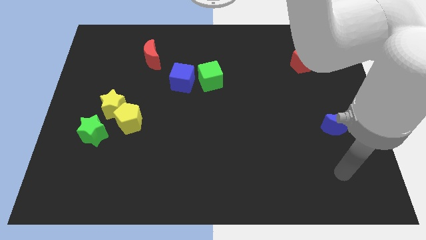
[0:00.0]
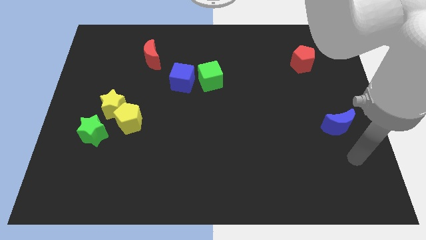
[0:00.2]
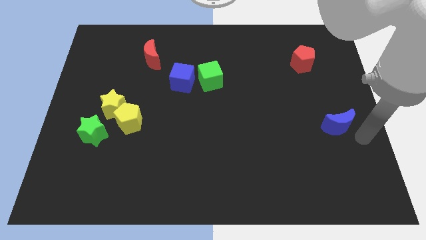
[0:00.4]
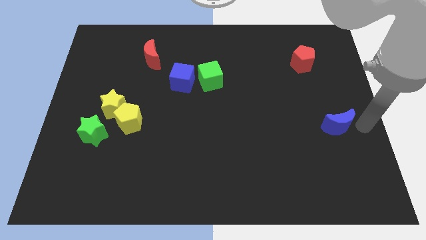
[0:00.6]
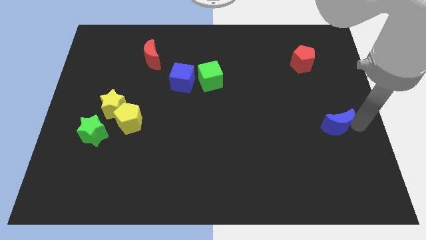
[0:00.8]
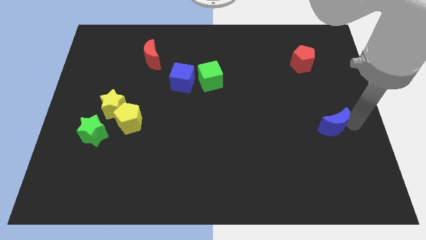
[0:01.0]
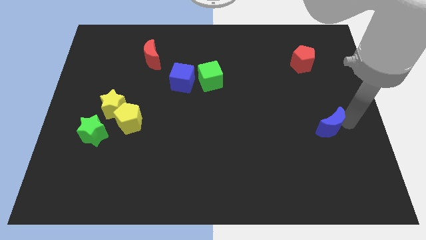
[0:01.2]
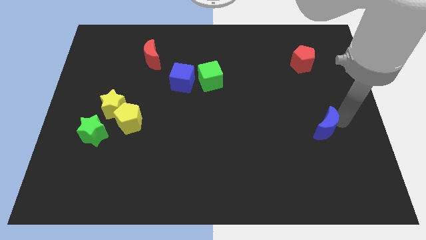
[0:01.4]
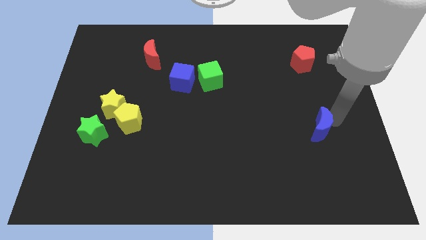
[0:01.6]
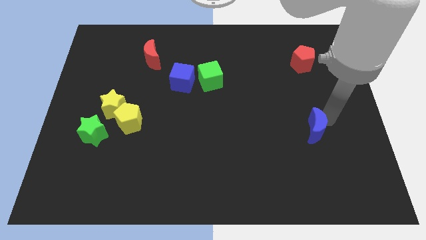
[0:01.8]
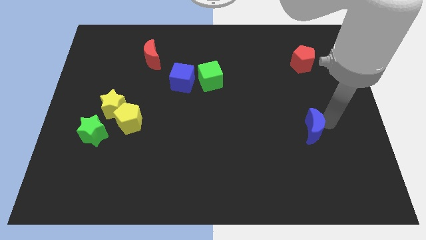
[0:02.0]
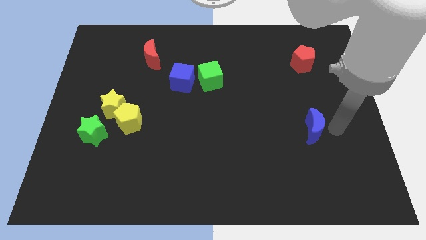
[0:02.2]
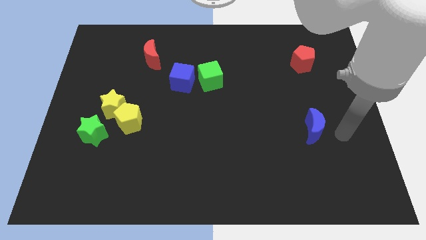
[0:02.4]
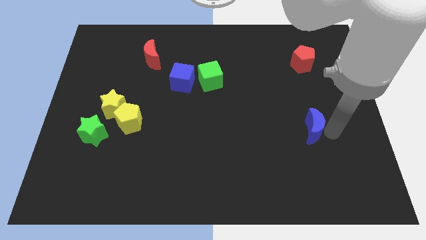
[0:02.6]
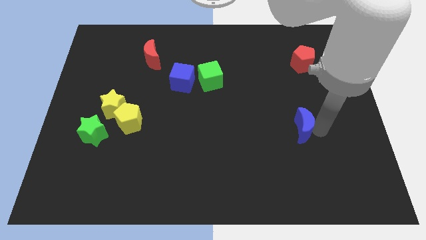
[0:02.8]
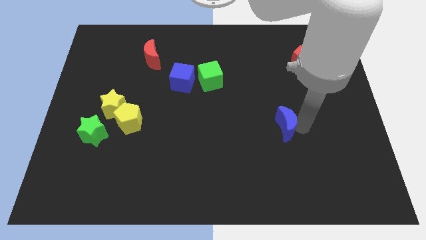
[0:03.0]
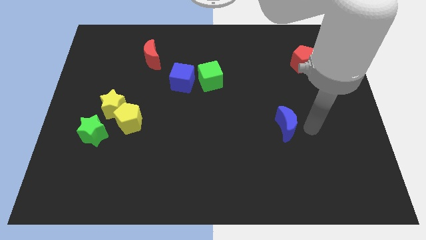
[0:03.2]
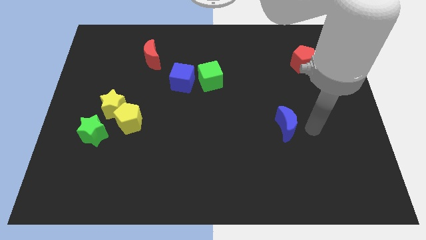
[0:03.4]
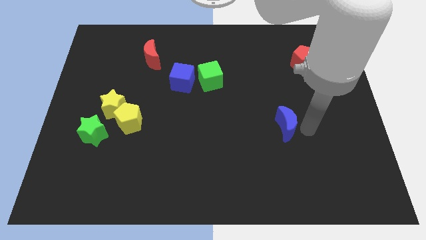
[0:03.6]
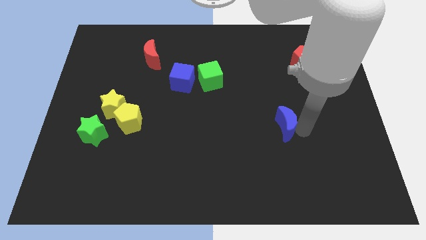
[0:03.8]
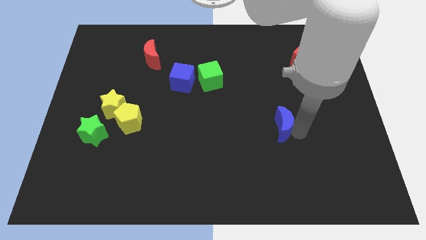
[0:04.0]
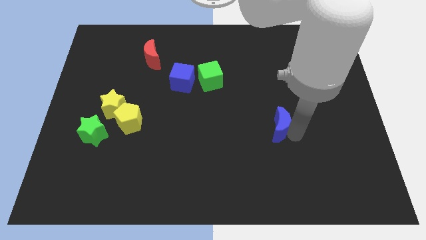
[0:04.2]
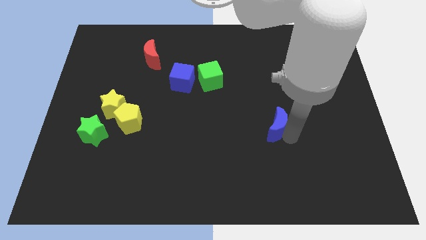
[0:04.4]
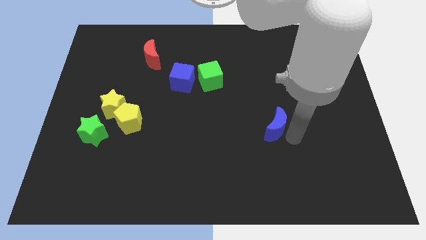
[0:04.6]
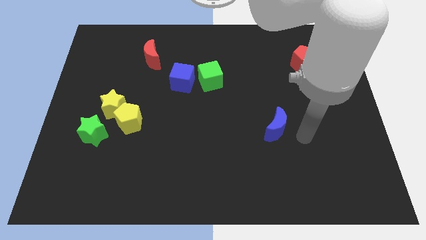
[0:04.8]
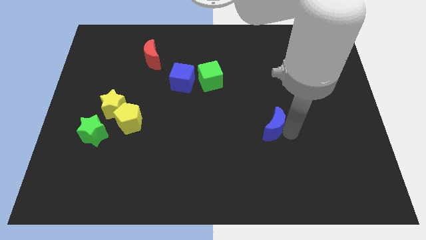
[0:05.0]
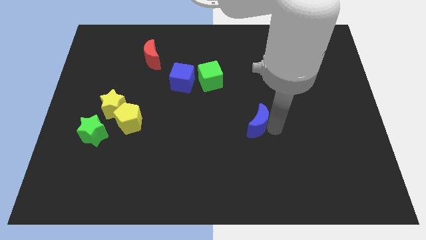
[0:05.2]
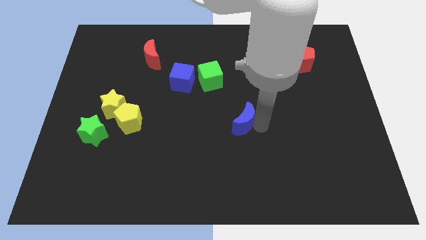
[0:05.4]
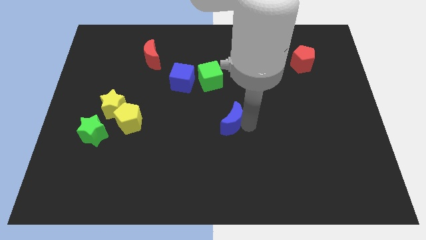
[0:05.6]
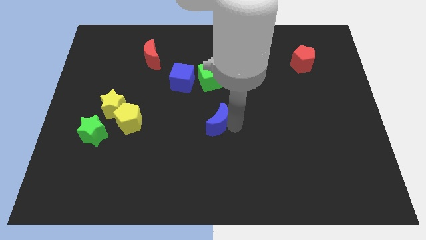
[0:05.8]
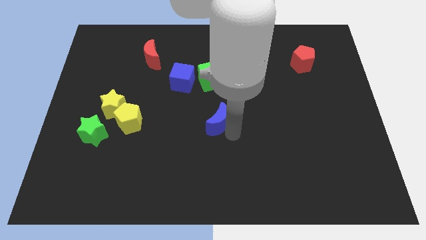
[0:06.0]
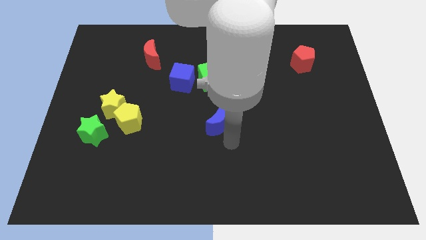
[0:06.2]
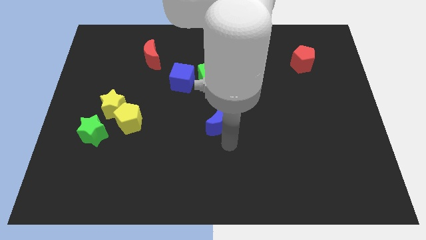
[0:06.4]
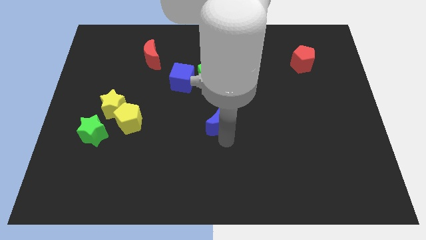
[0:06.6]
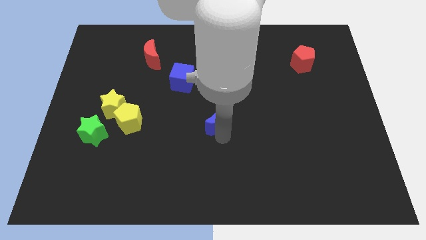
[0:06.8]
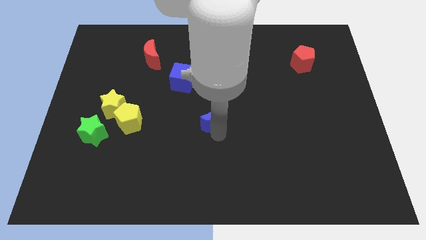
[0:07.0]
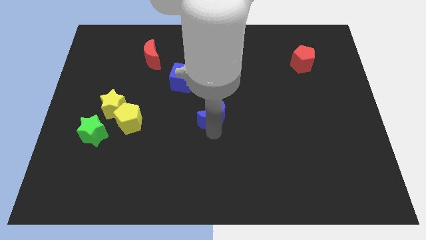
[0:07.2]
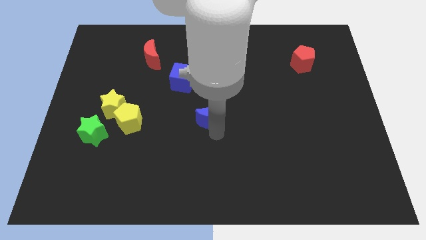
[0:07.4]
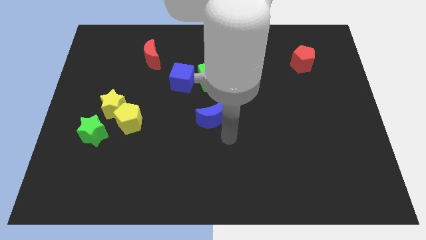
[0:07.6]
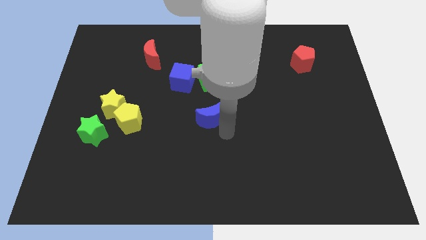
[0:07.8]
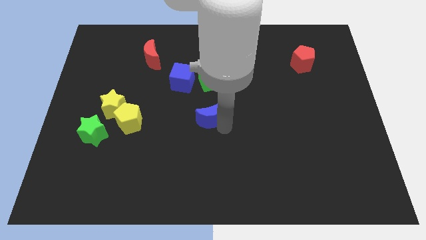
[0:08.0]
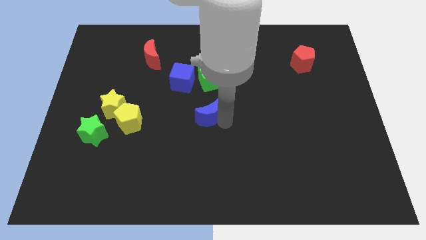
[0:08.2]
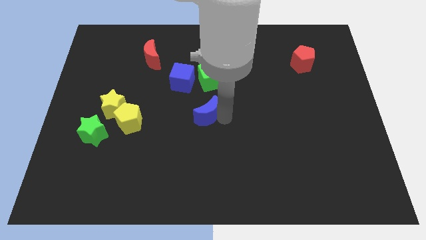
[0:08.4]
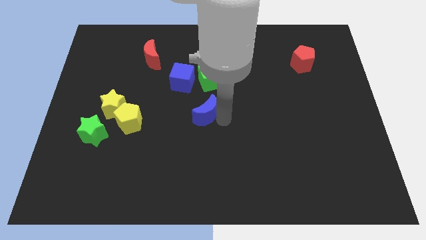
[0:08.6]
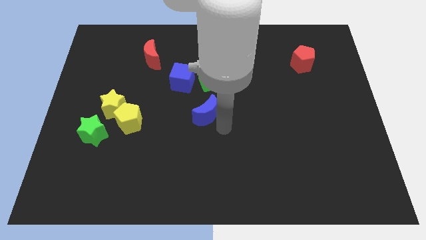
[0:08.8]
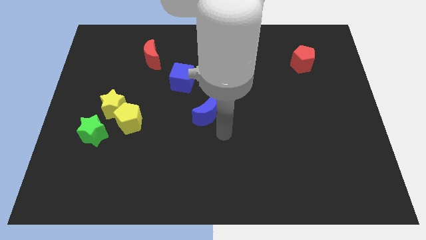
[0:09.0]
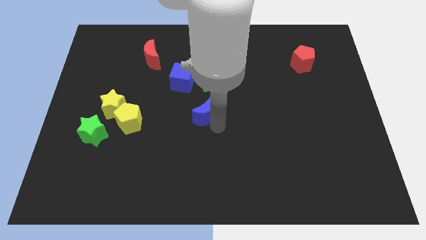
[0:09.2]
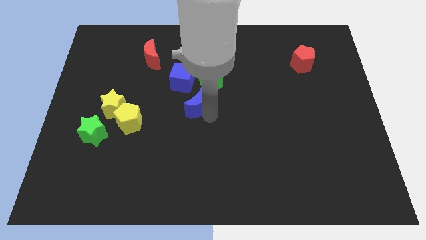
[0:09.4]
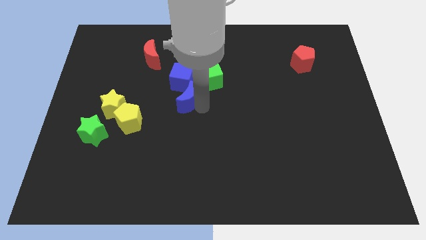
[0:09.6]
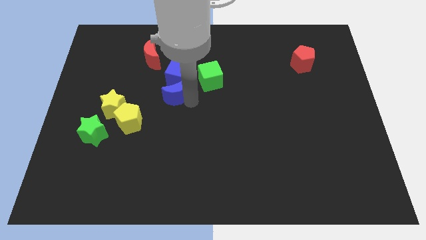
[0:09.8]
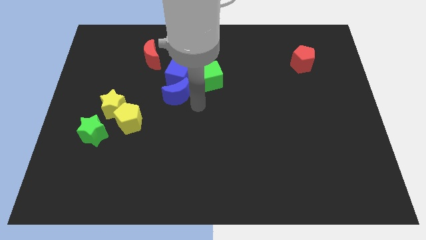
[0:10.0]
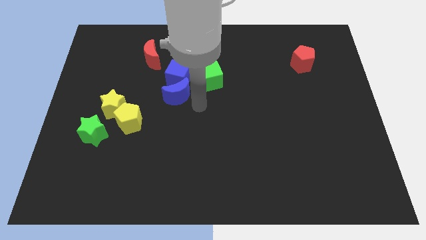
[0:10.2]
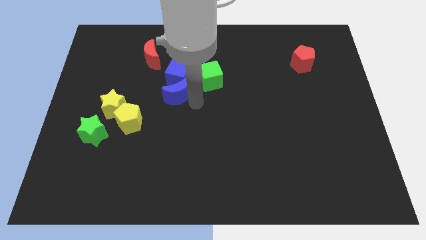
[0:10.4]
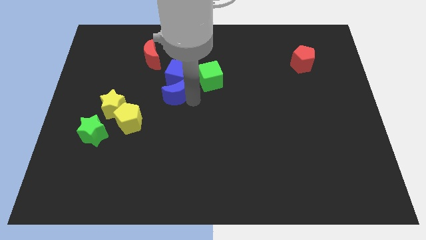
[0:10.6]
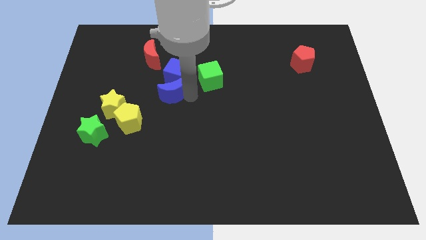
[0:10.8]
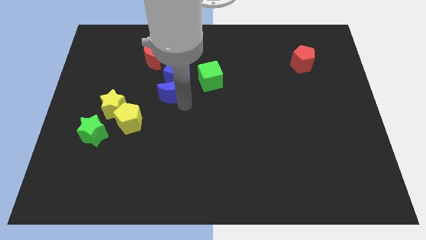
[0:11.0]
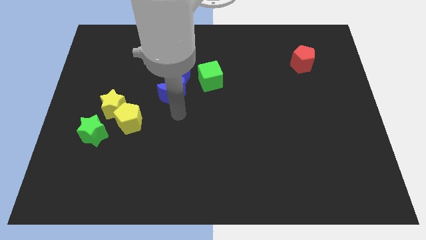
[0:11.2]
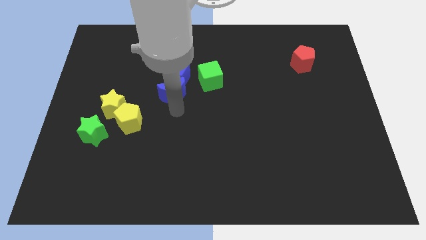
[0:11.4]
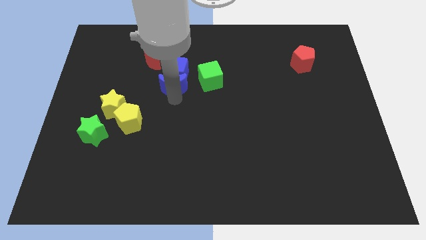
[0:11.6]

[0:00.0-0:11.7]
put the blue moon to the bottom right side of the red moon

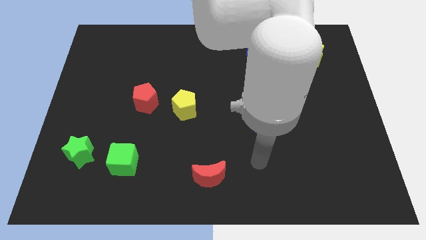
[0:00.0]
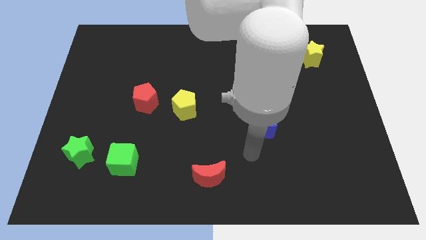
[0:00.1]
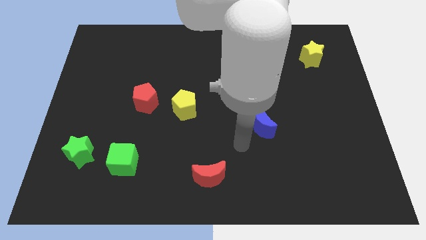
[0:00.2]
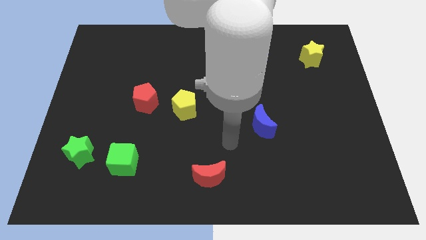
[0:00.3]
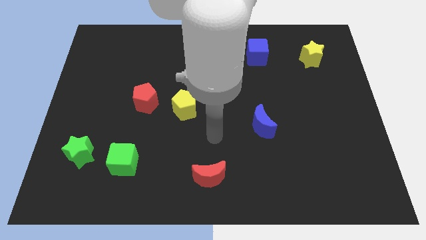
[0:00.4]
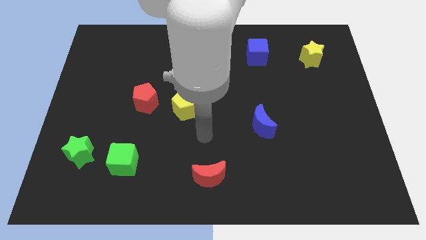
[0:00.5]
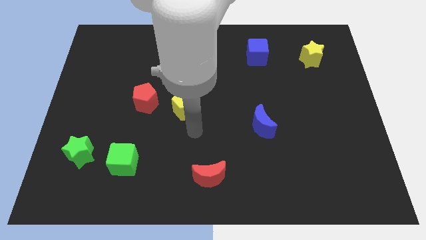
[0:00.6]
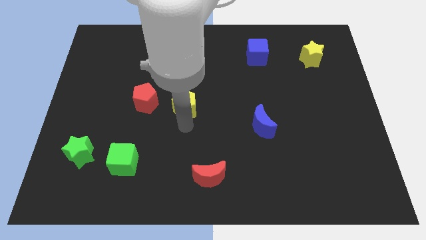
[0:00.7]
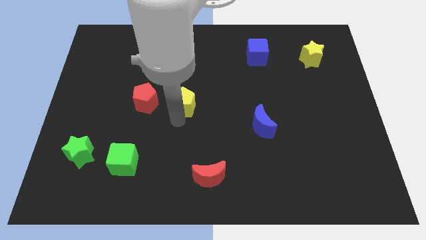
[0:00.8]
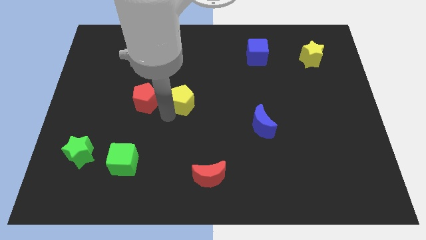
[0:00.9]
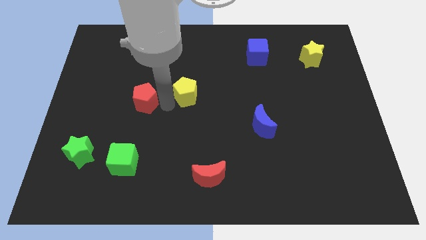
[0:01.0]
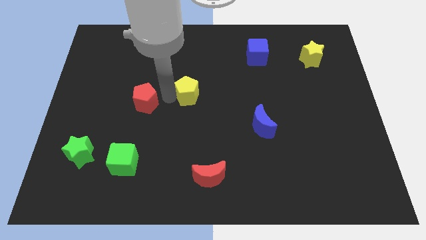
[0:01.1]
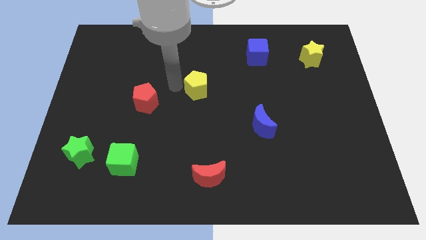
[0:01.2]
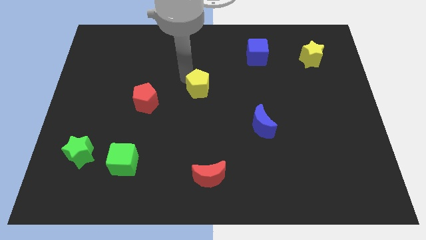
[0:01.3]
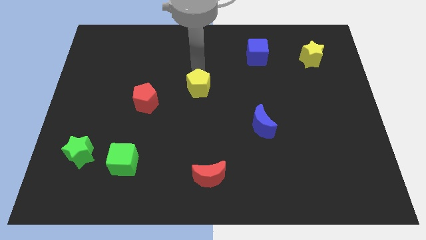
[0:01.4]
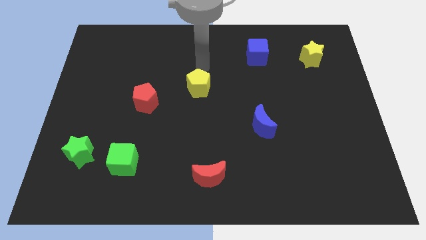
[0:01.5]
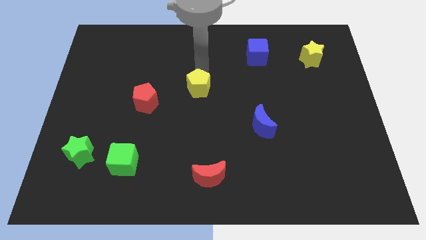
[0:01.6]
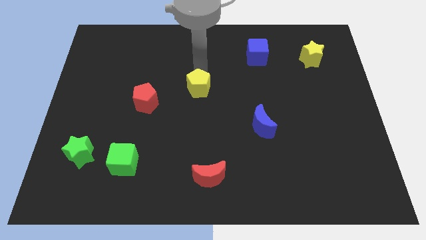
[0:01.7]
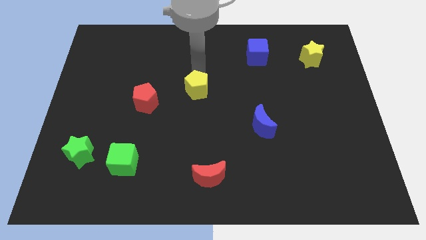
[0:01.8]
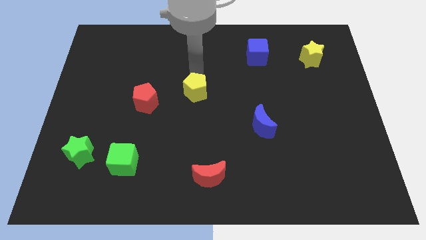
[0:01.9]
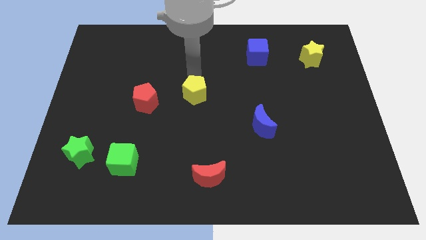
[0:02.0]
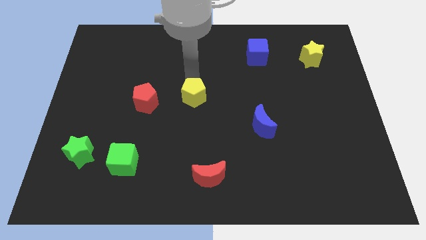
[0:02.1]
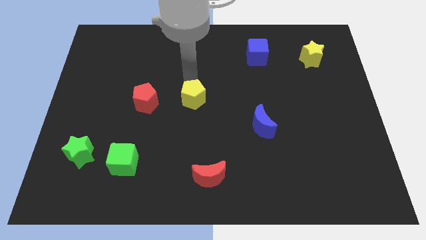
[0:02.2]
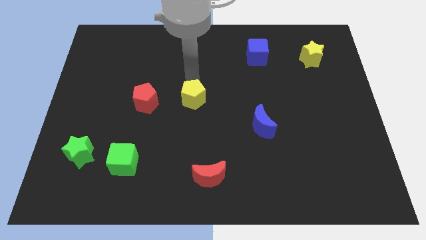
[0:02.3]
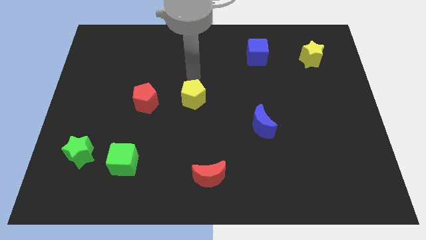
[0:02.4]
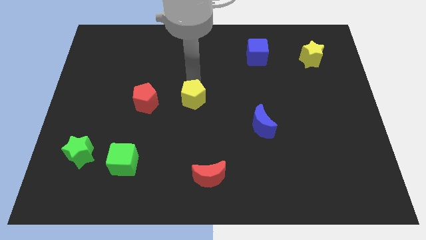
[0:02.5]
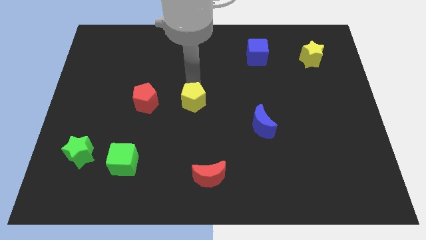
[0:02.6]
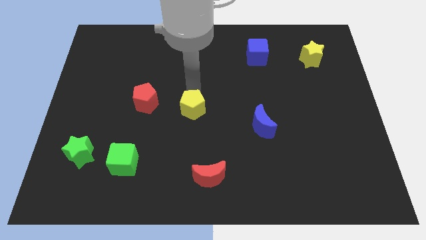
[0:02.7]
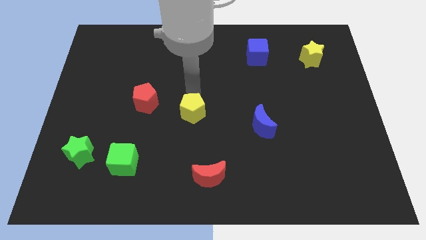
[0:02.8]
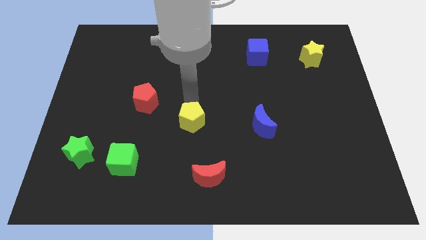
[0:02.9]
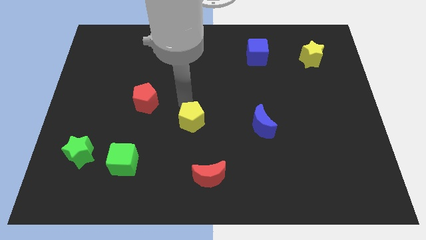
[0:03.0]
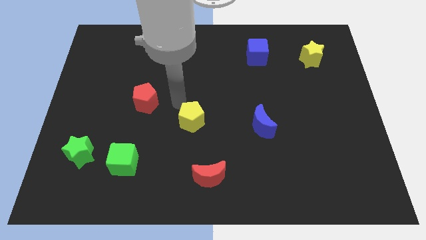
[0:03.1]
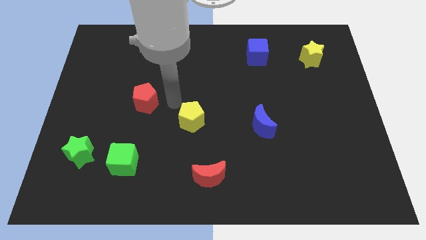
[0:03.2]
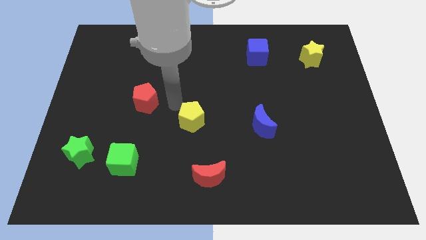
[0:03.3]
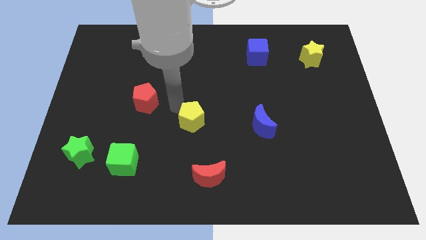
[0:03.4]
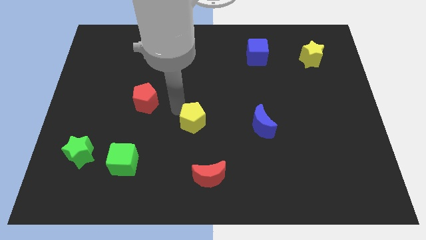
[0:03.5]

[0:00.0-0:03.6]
put the yellow pentagon to the top of the red moon
